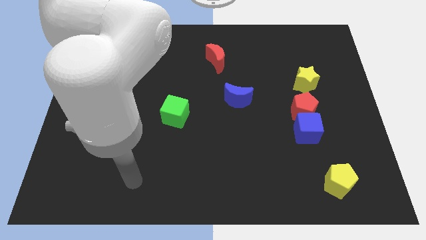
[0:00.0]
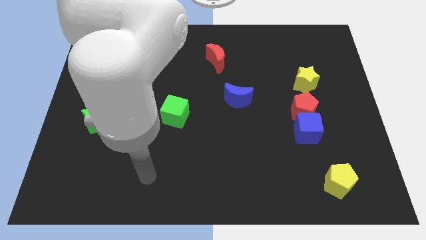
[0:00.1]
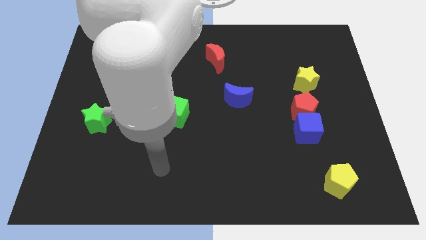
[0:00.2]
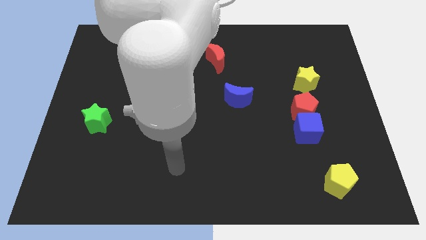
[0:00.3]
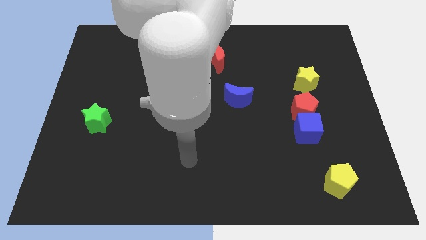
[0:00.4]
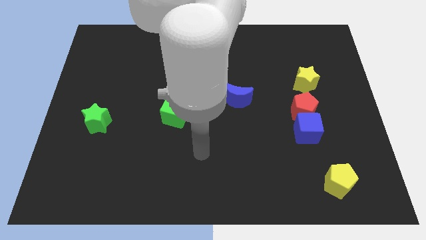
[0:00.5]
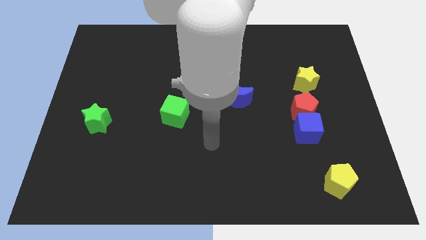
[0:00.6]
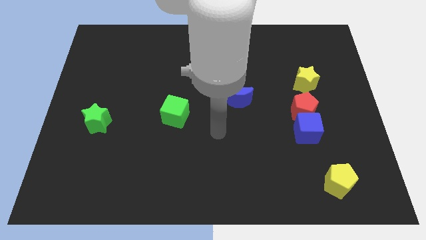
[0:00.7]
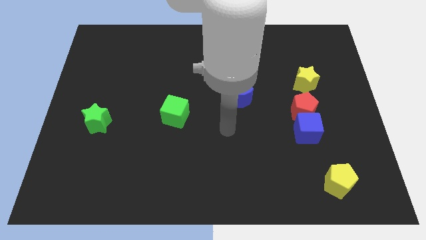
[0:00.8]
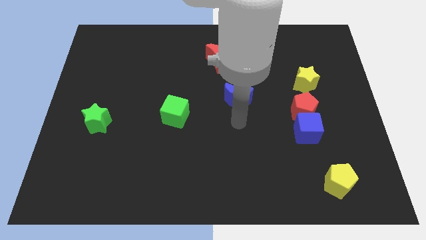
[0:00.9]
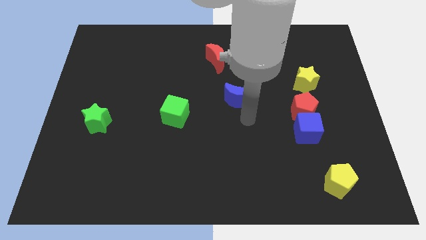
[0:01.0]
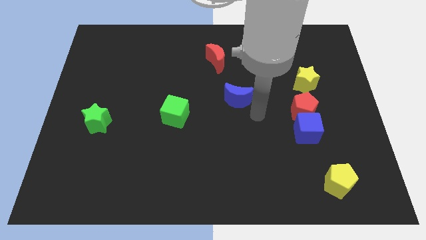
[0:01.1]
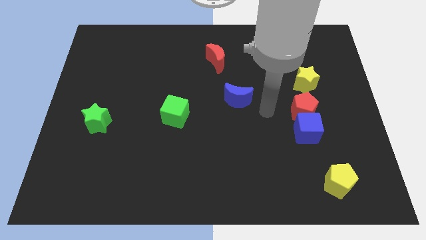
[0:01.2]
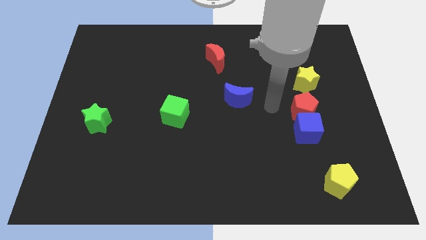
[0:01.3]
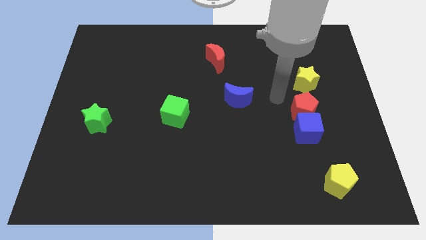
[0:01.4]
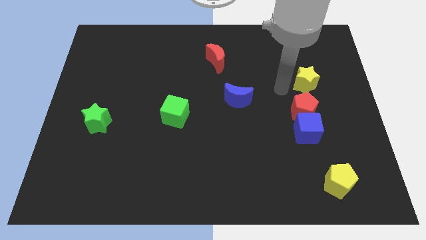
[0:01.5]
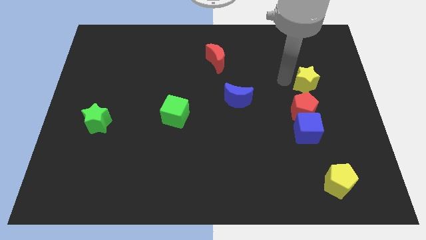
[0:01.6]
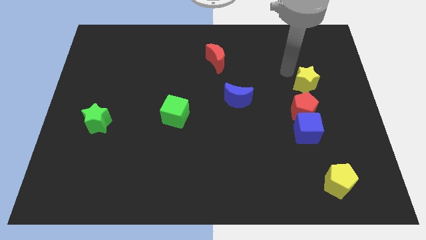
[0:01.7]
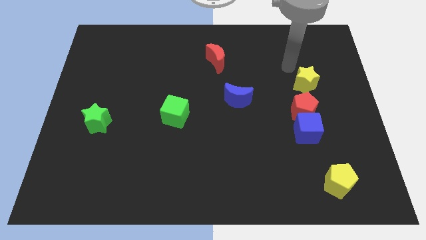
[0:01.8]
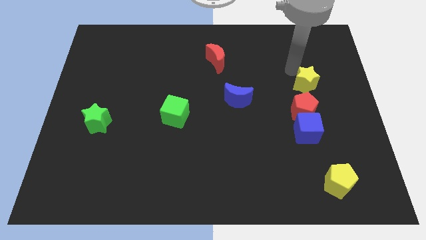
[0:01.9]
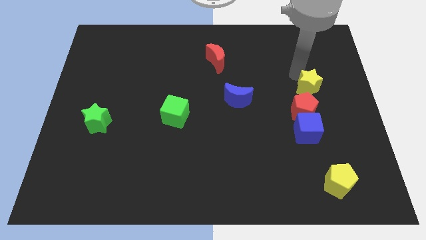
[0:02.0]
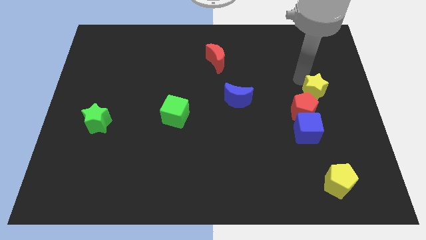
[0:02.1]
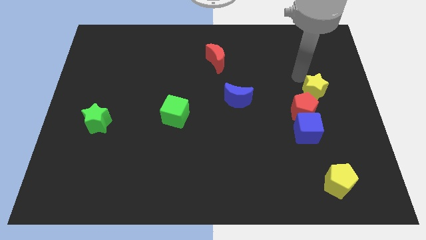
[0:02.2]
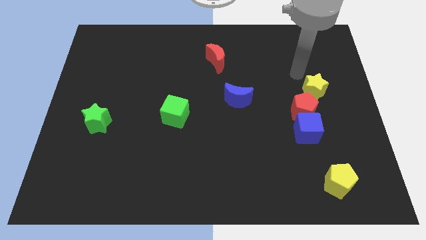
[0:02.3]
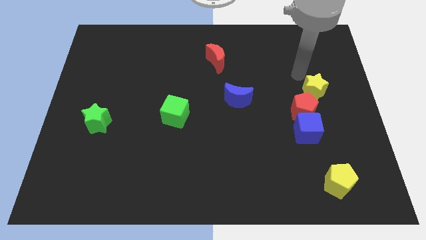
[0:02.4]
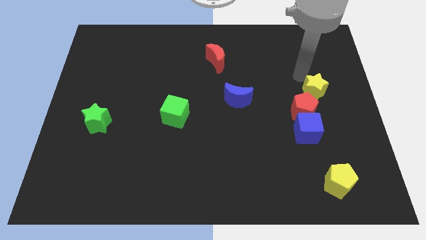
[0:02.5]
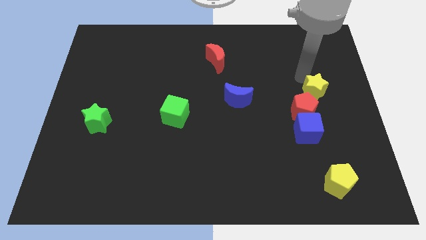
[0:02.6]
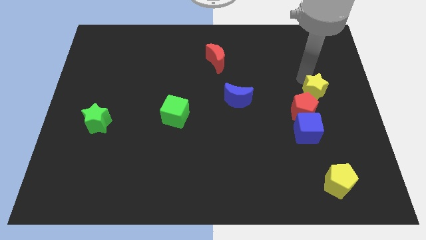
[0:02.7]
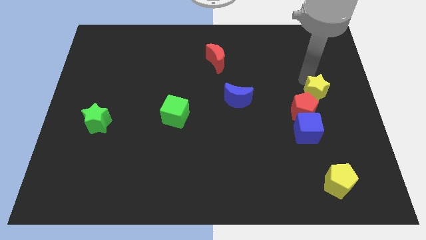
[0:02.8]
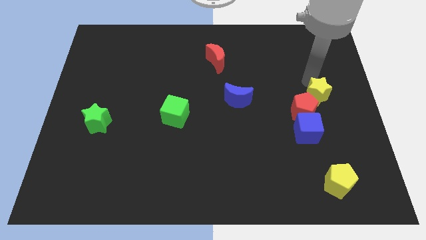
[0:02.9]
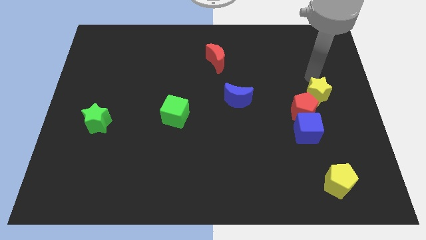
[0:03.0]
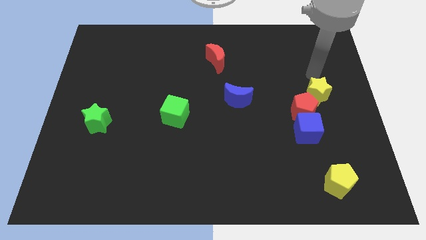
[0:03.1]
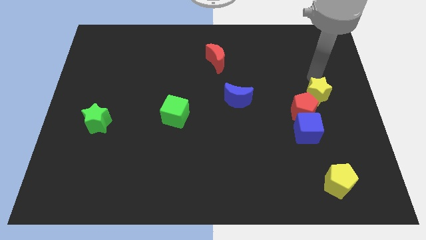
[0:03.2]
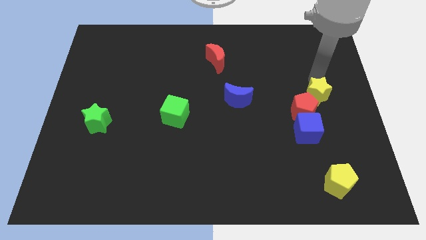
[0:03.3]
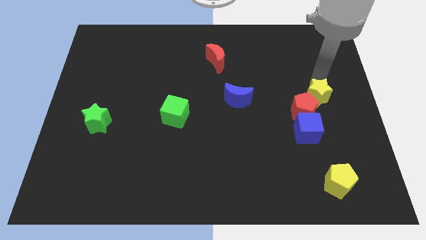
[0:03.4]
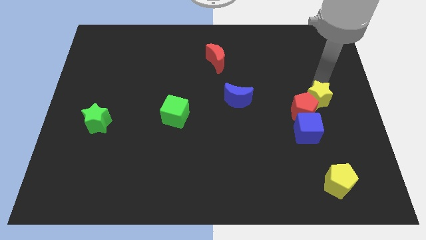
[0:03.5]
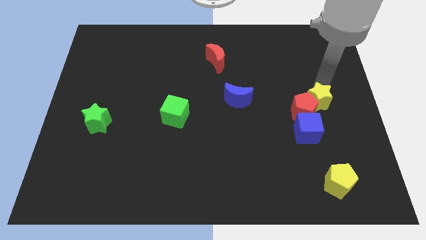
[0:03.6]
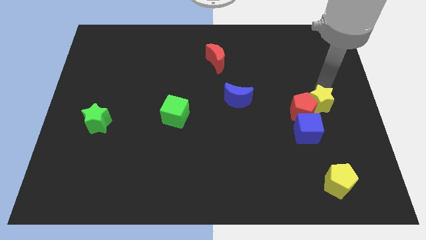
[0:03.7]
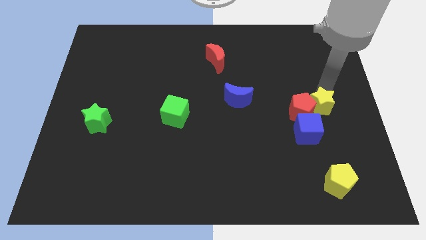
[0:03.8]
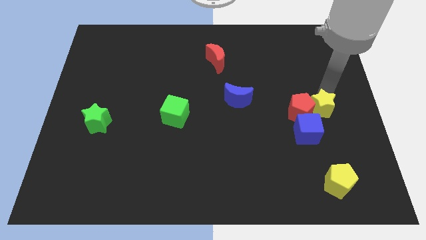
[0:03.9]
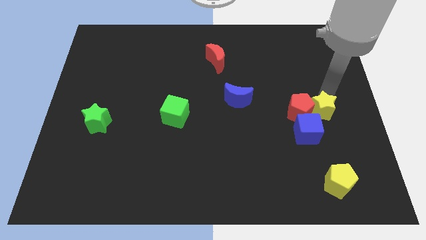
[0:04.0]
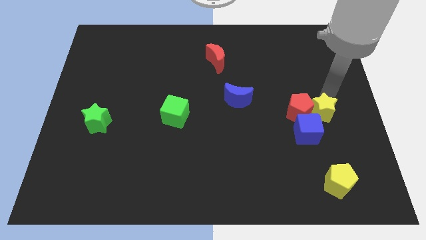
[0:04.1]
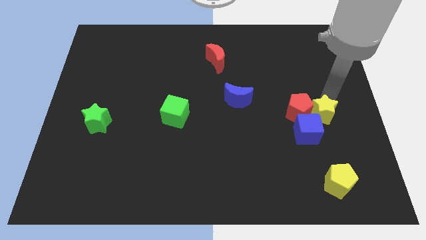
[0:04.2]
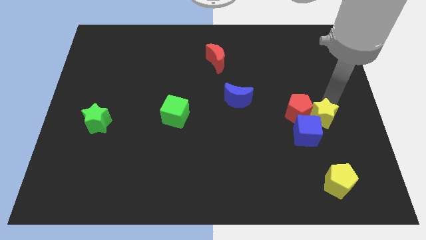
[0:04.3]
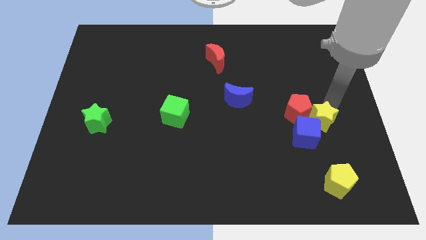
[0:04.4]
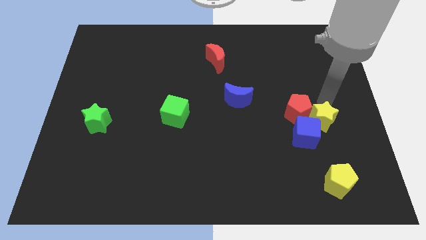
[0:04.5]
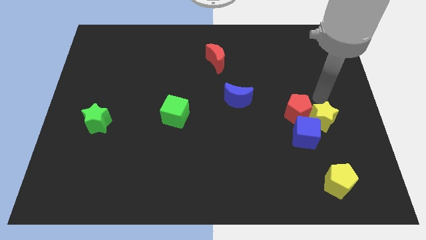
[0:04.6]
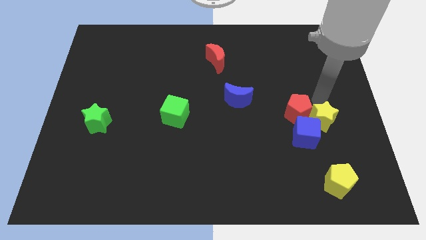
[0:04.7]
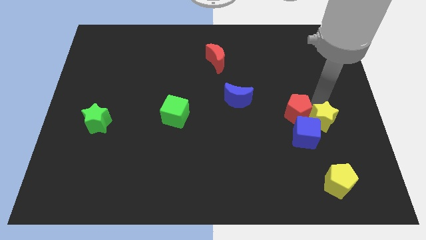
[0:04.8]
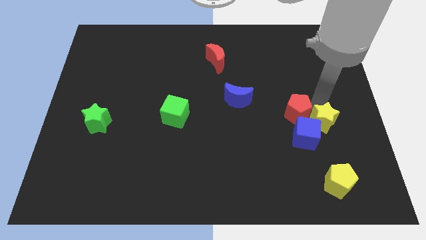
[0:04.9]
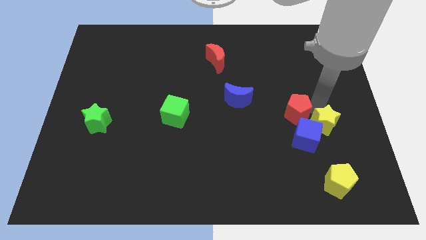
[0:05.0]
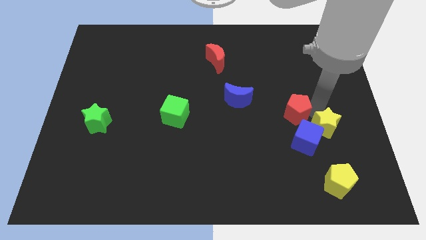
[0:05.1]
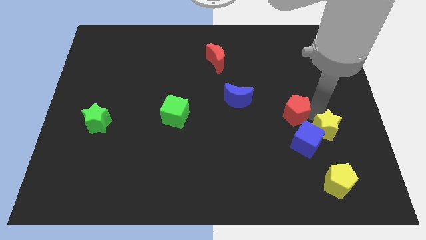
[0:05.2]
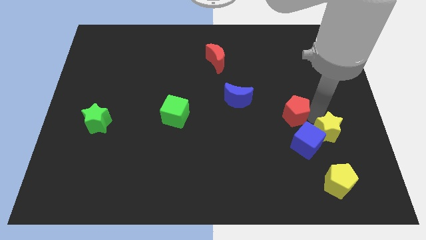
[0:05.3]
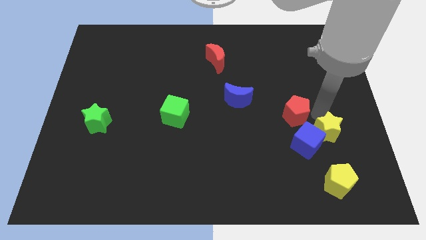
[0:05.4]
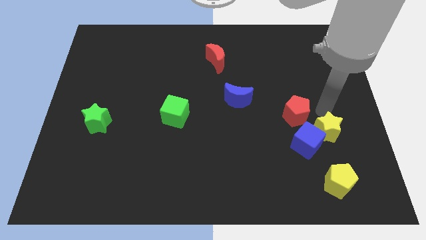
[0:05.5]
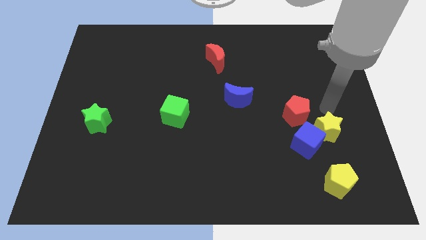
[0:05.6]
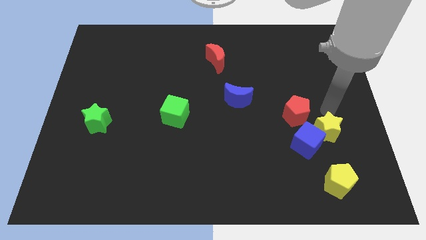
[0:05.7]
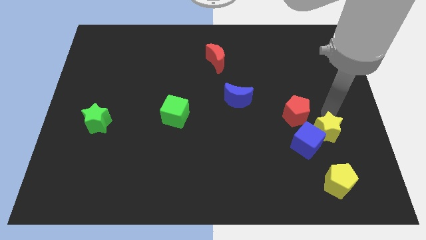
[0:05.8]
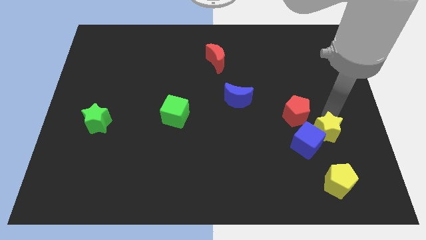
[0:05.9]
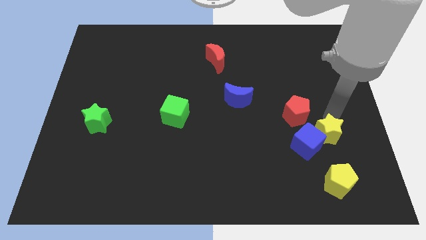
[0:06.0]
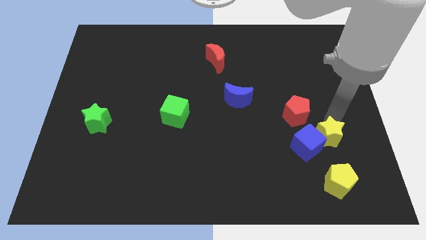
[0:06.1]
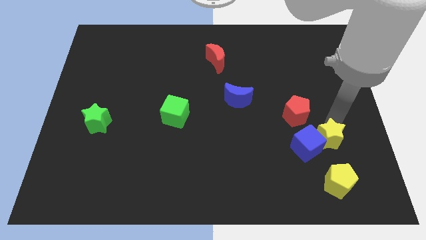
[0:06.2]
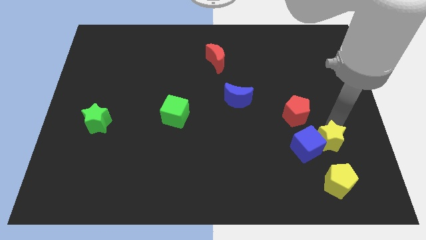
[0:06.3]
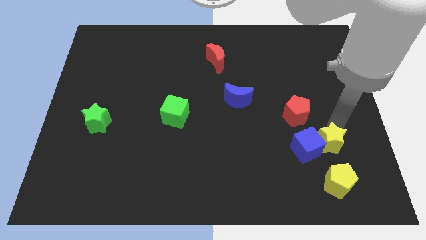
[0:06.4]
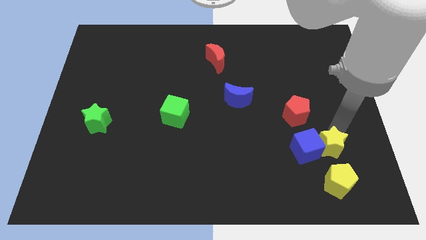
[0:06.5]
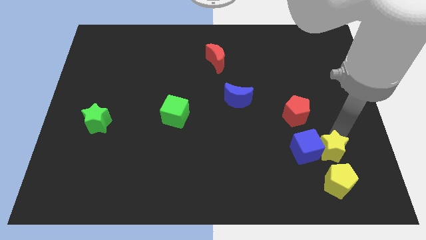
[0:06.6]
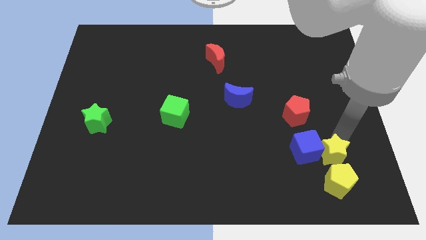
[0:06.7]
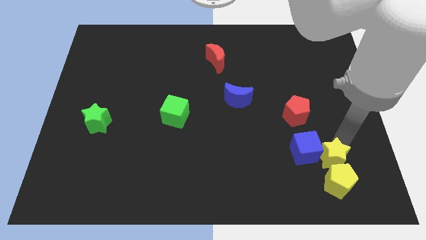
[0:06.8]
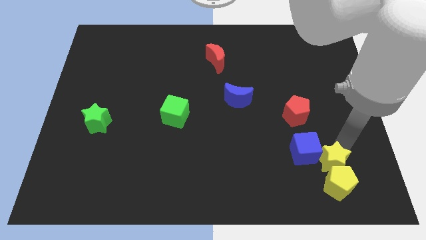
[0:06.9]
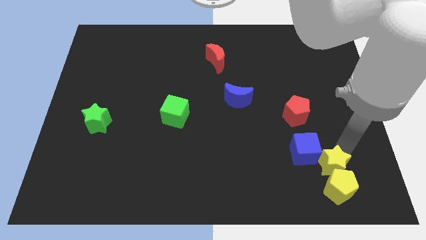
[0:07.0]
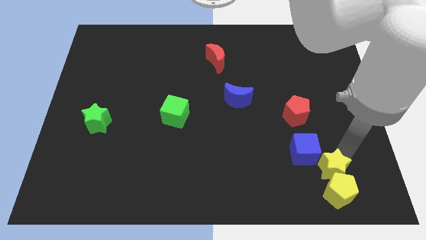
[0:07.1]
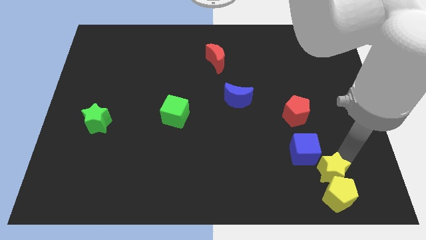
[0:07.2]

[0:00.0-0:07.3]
move the yellow star to the bottom side of the blue cube
